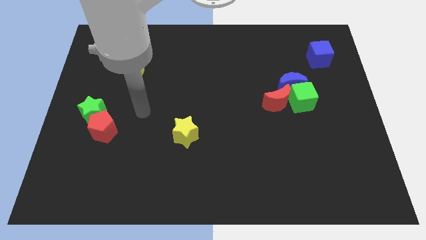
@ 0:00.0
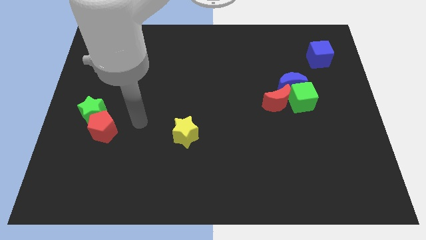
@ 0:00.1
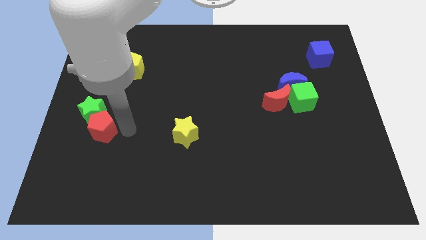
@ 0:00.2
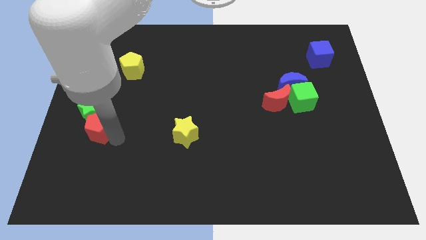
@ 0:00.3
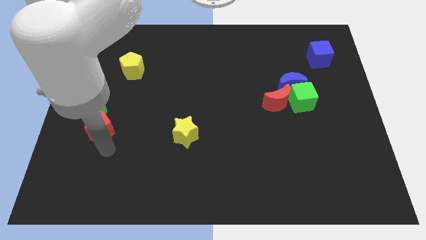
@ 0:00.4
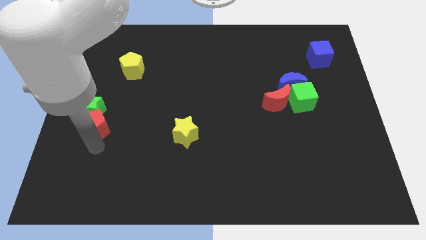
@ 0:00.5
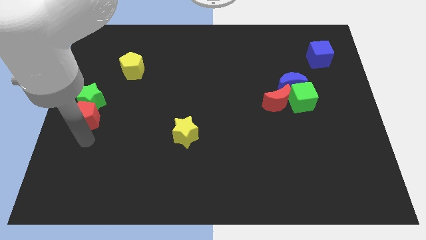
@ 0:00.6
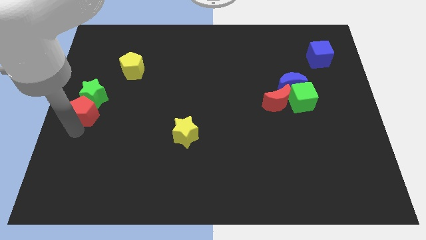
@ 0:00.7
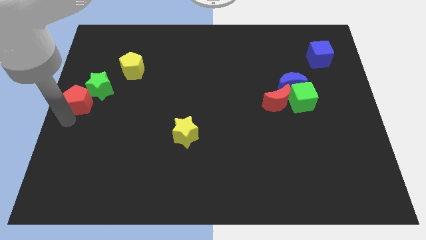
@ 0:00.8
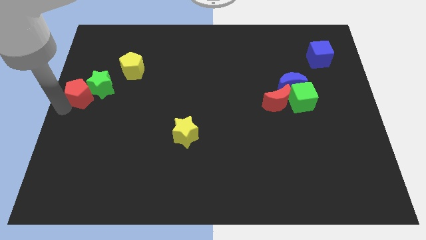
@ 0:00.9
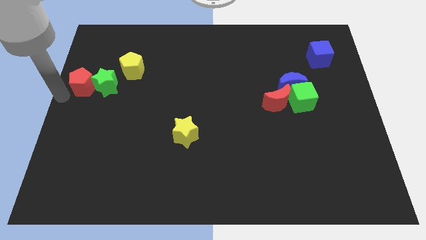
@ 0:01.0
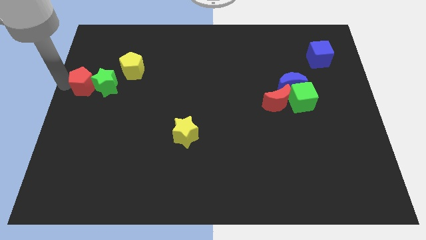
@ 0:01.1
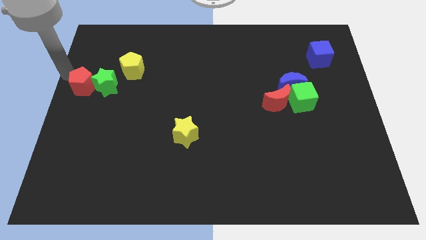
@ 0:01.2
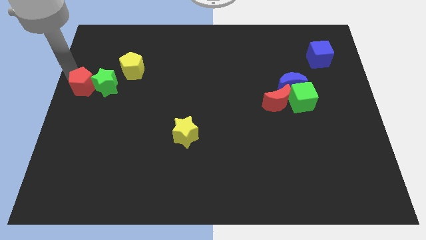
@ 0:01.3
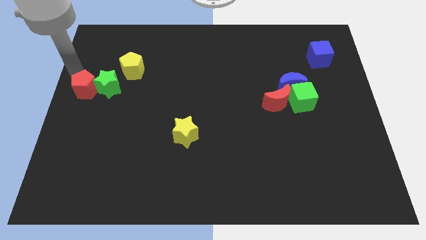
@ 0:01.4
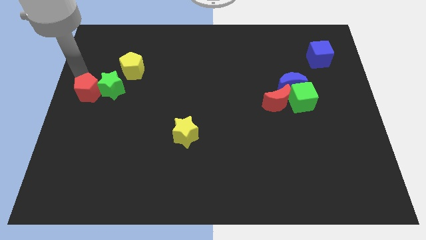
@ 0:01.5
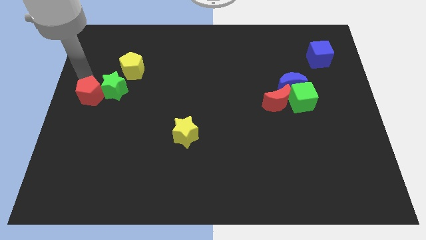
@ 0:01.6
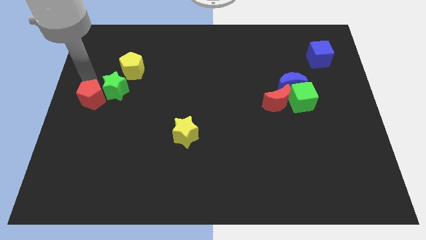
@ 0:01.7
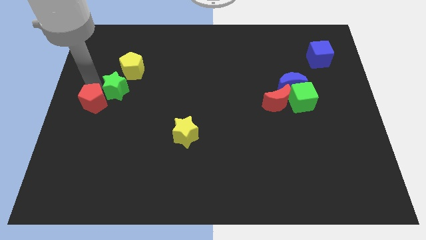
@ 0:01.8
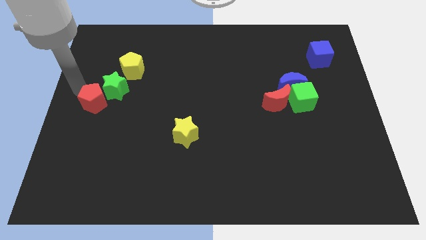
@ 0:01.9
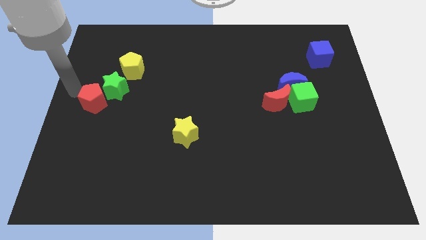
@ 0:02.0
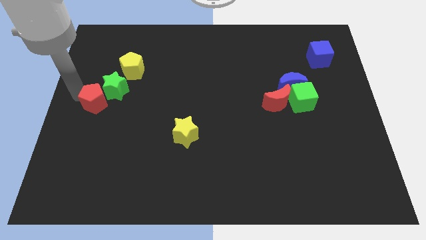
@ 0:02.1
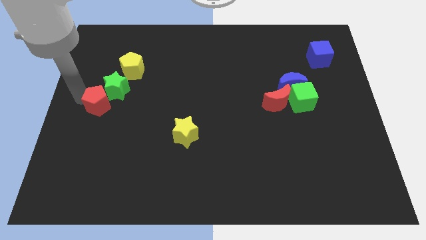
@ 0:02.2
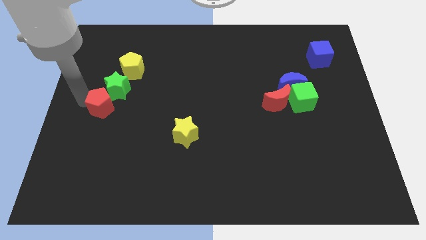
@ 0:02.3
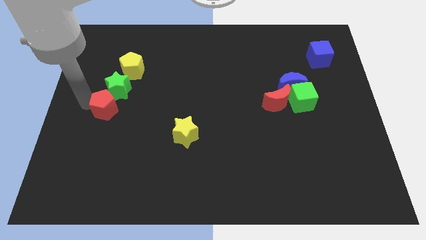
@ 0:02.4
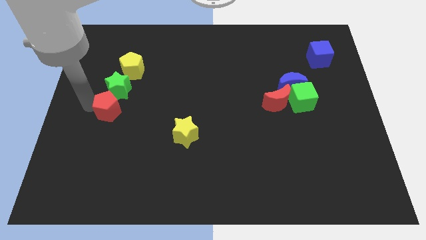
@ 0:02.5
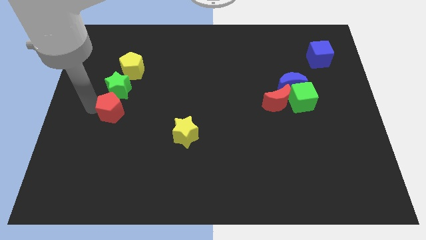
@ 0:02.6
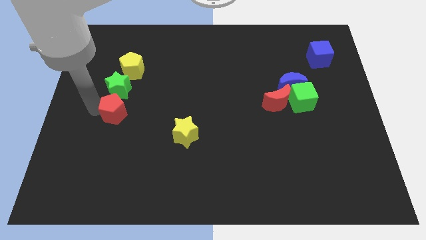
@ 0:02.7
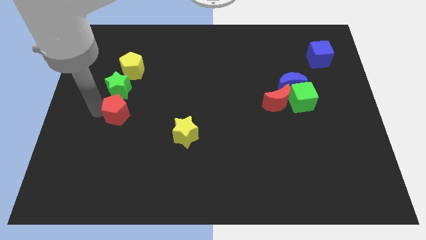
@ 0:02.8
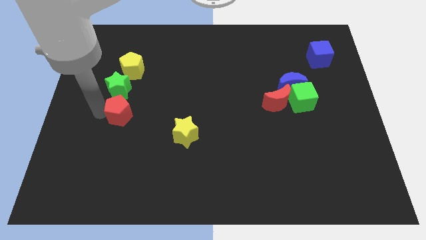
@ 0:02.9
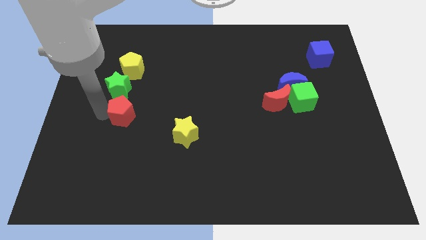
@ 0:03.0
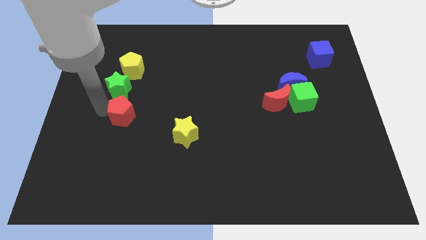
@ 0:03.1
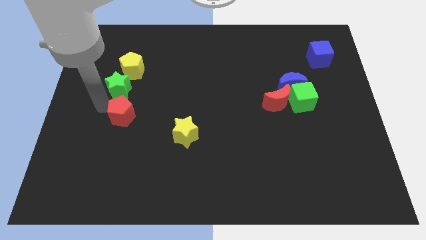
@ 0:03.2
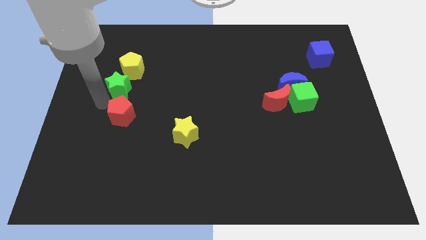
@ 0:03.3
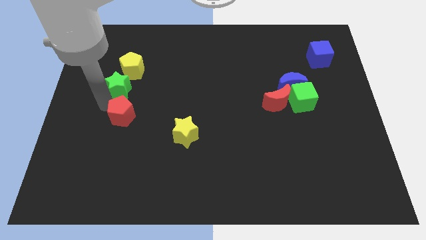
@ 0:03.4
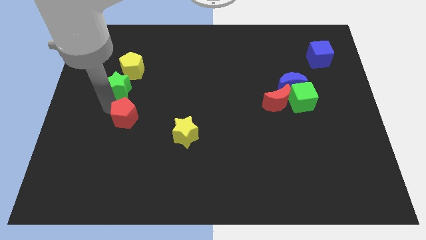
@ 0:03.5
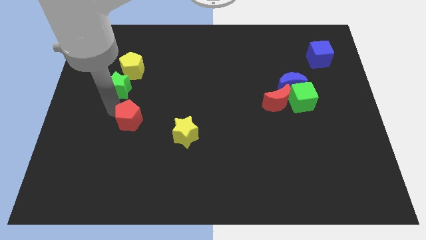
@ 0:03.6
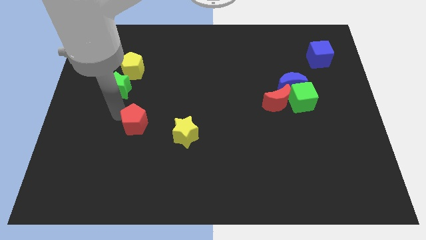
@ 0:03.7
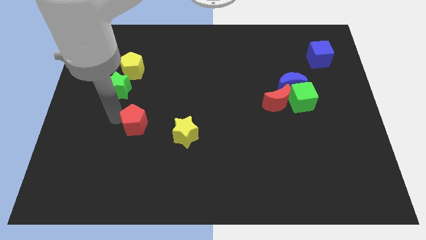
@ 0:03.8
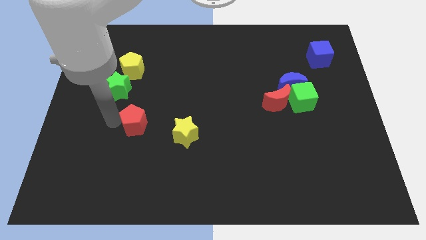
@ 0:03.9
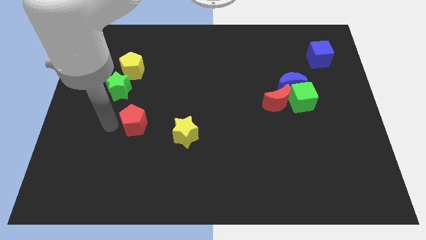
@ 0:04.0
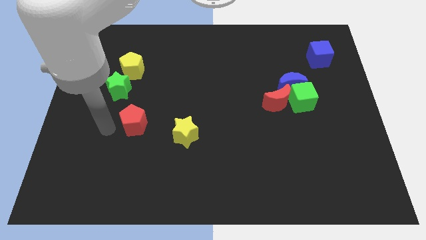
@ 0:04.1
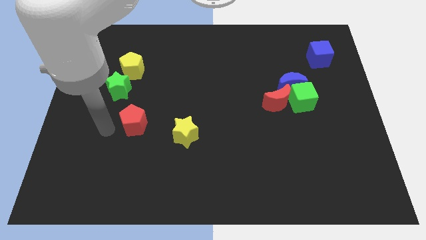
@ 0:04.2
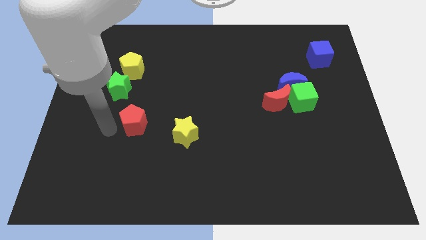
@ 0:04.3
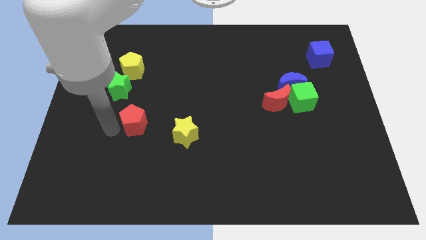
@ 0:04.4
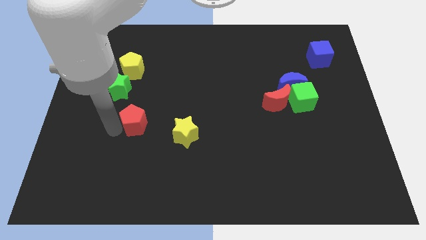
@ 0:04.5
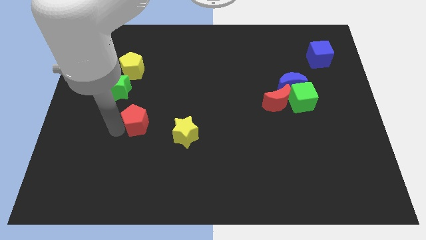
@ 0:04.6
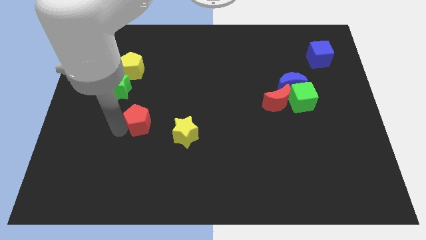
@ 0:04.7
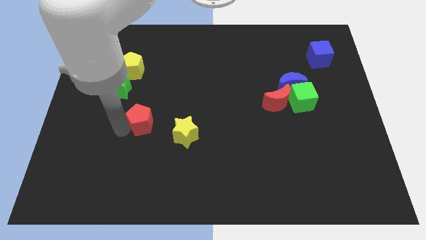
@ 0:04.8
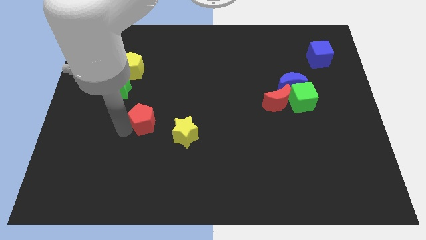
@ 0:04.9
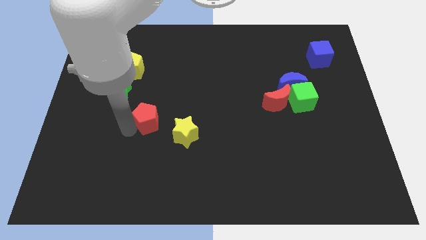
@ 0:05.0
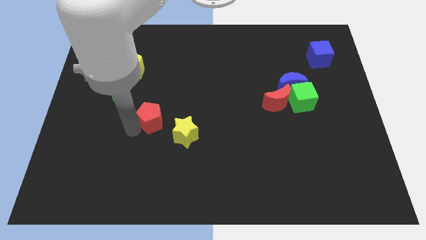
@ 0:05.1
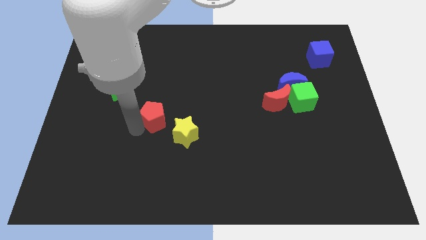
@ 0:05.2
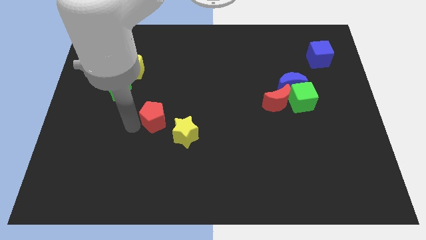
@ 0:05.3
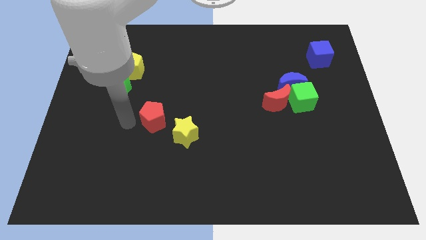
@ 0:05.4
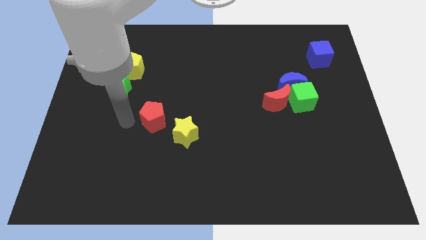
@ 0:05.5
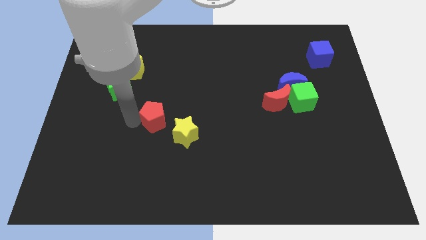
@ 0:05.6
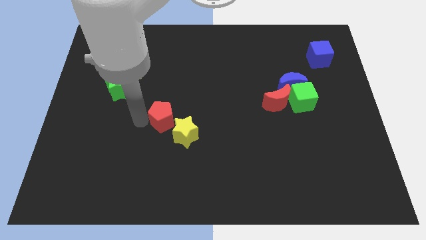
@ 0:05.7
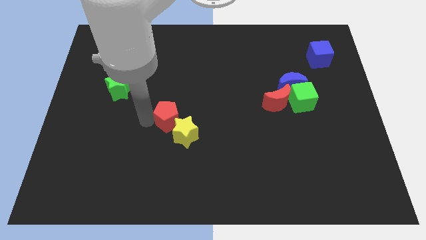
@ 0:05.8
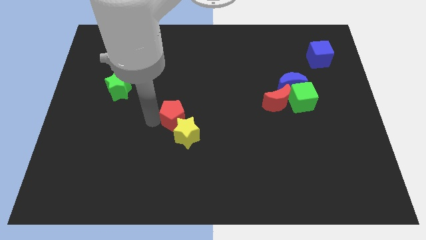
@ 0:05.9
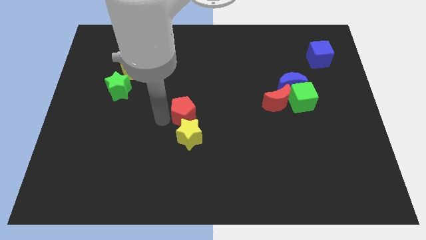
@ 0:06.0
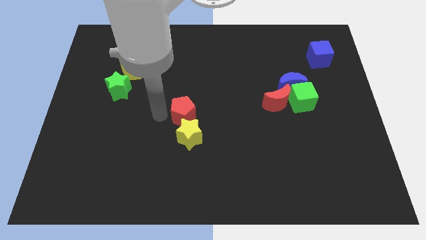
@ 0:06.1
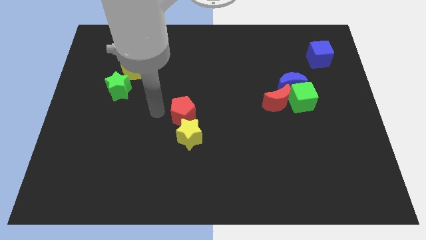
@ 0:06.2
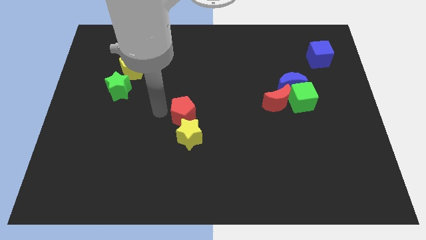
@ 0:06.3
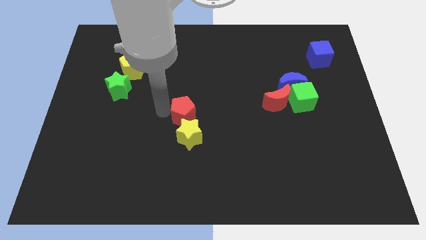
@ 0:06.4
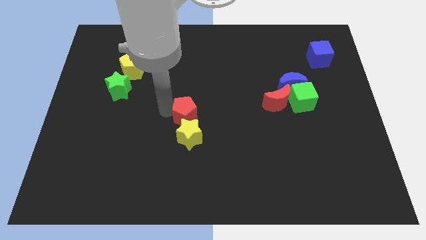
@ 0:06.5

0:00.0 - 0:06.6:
put the red pentagon diagonally up and to the right of the yellow star
